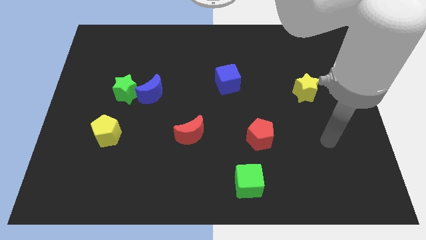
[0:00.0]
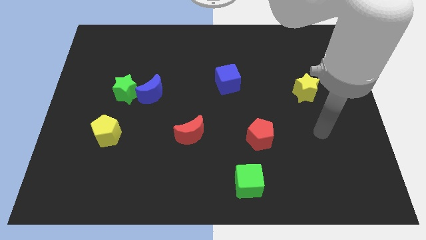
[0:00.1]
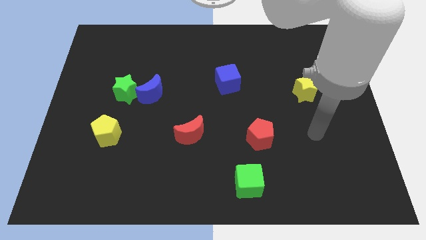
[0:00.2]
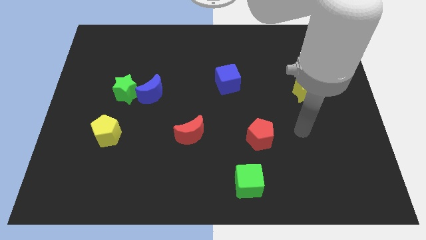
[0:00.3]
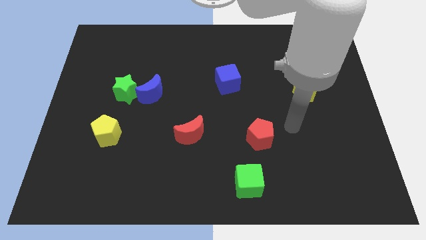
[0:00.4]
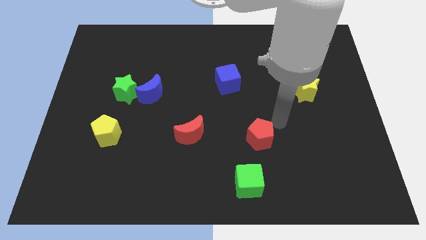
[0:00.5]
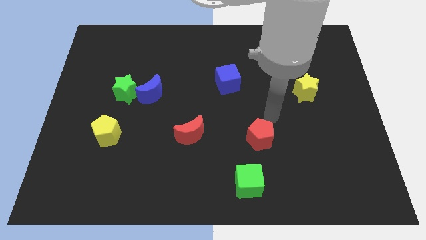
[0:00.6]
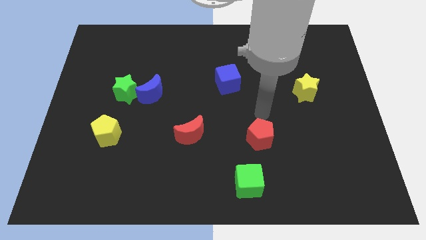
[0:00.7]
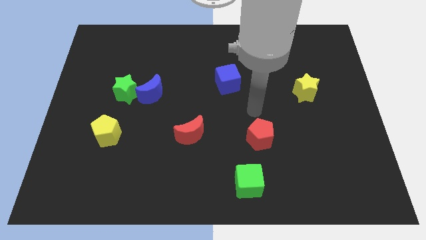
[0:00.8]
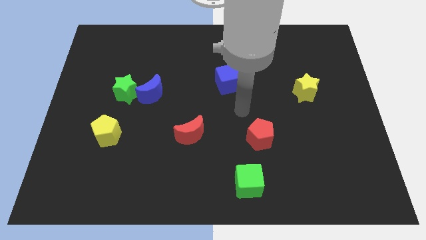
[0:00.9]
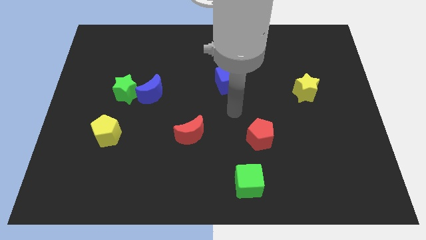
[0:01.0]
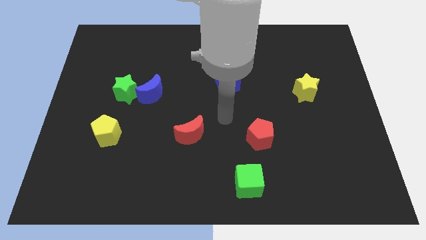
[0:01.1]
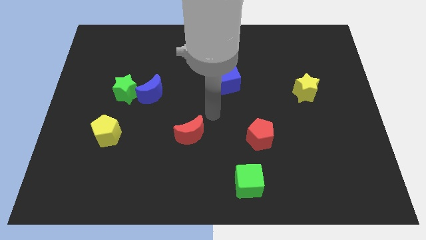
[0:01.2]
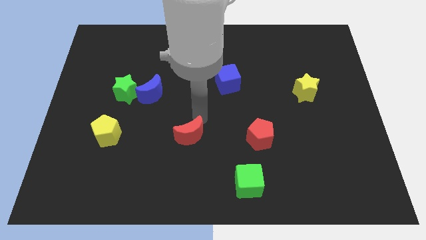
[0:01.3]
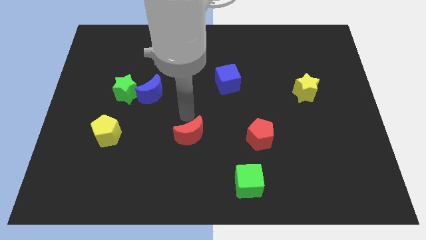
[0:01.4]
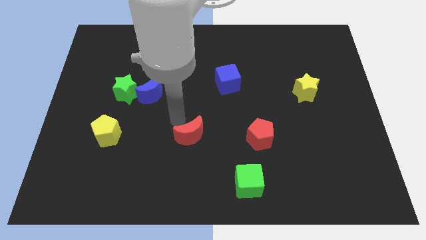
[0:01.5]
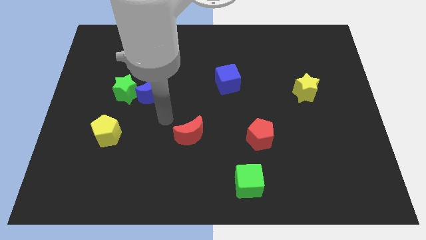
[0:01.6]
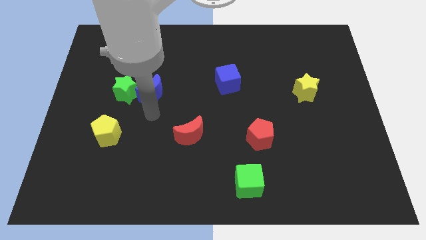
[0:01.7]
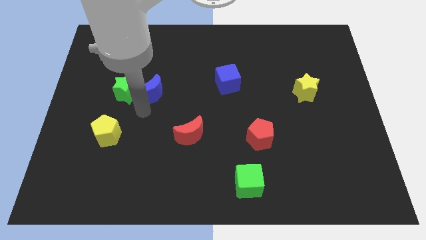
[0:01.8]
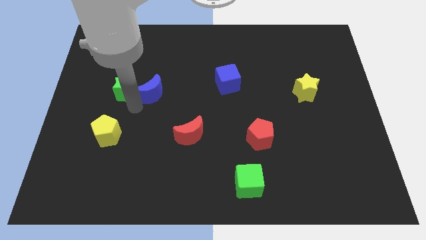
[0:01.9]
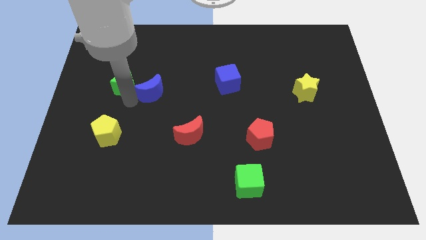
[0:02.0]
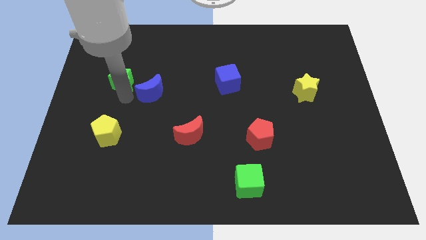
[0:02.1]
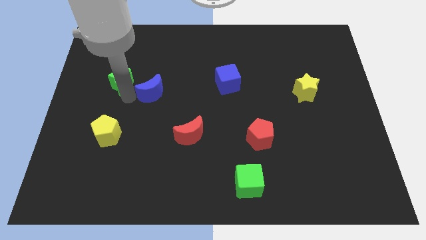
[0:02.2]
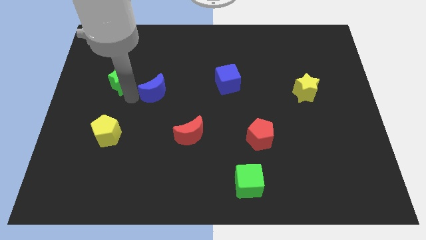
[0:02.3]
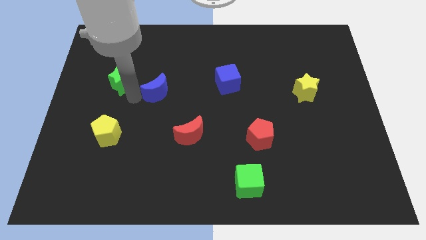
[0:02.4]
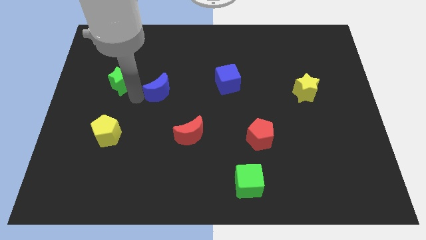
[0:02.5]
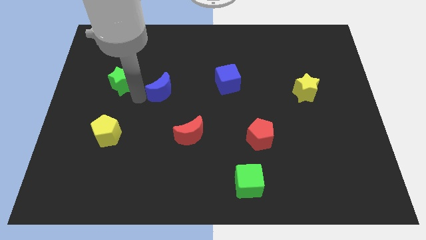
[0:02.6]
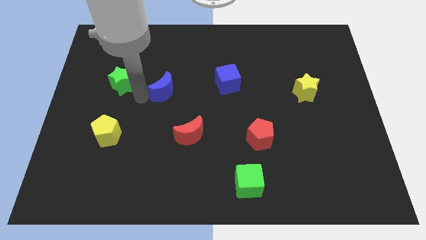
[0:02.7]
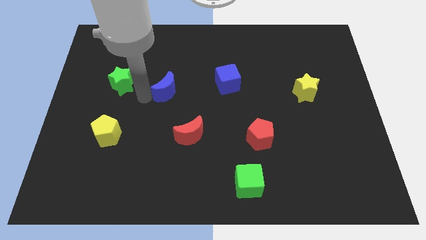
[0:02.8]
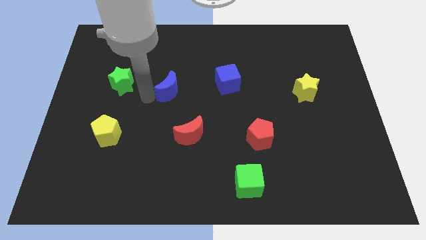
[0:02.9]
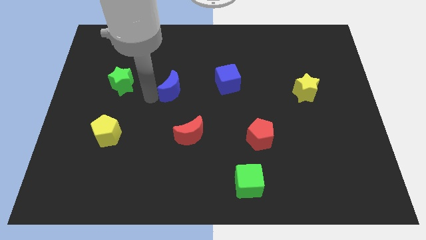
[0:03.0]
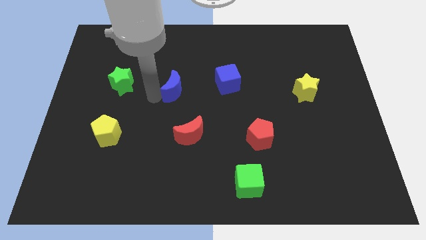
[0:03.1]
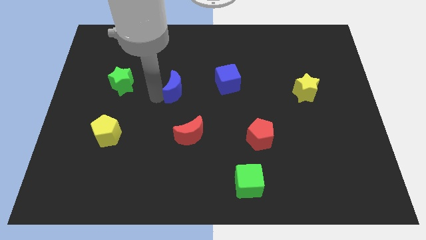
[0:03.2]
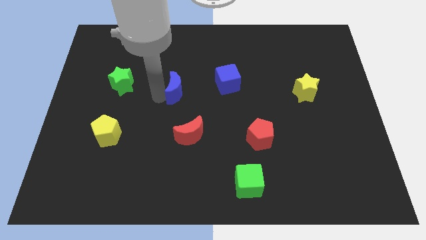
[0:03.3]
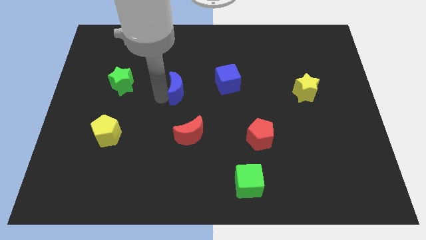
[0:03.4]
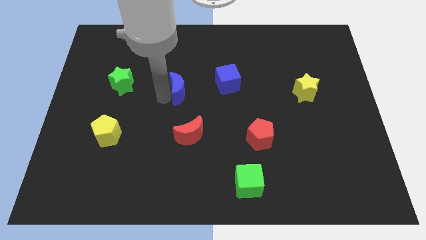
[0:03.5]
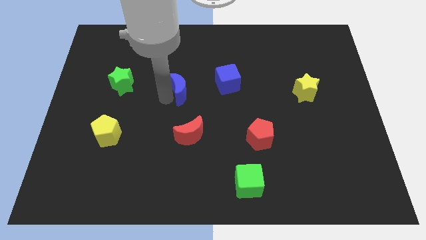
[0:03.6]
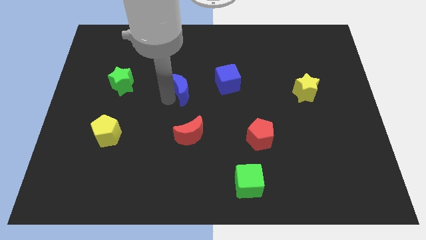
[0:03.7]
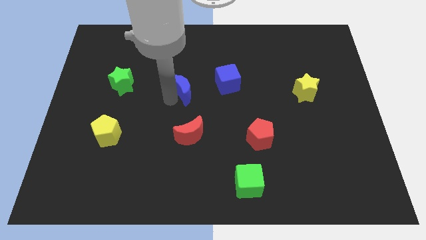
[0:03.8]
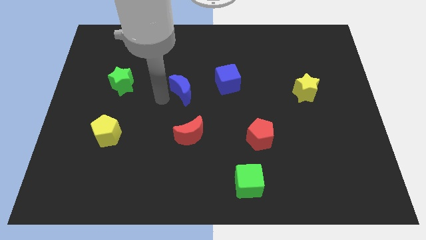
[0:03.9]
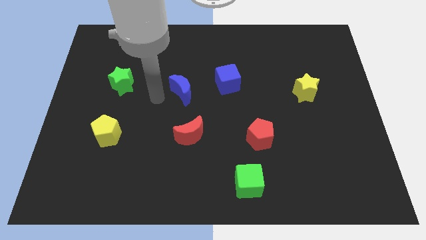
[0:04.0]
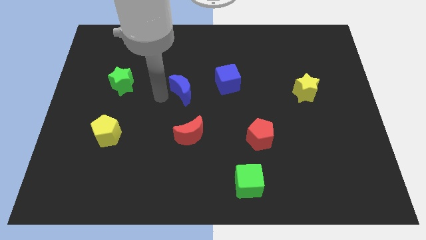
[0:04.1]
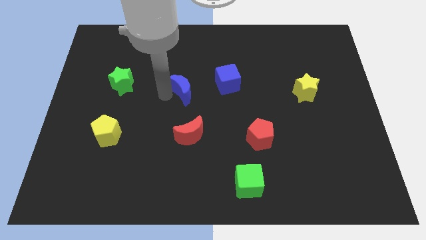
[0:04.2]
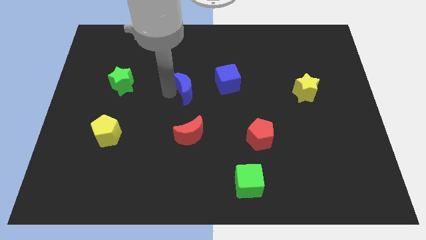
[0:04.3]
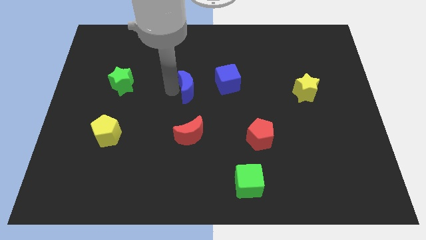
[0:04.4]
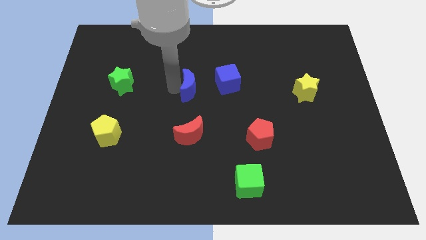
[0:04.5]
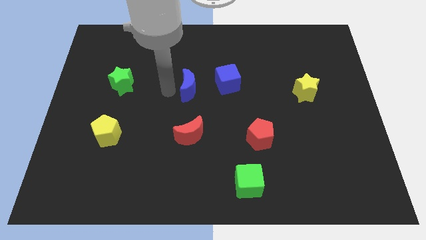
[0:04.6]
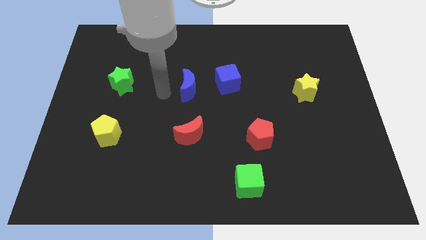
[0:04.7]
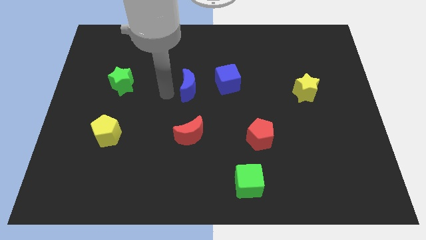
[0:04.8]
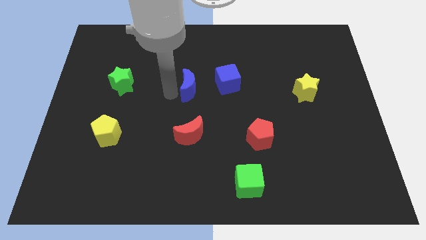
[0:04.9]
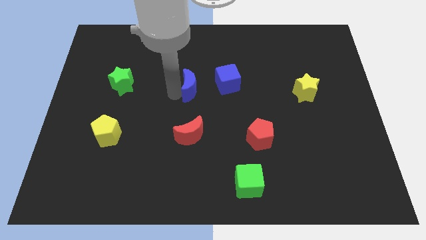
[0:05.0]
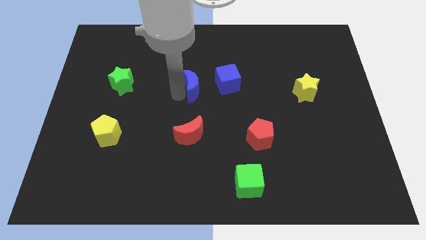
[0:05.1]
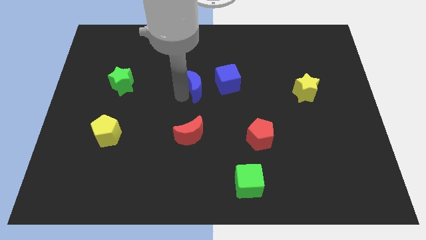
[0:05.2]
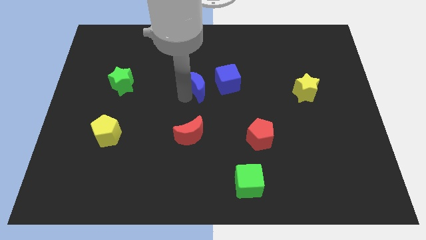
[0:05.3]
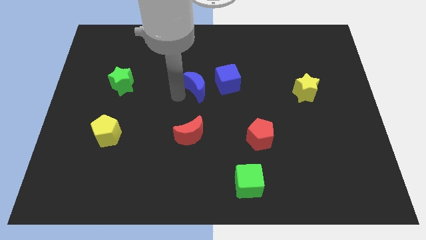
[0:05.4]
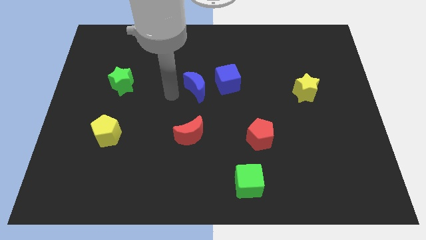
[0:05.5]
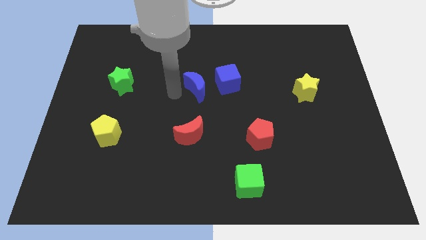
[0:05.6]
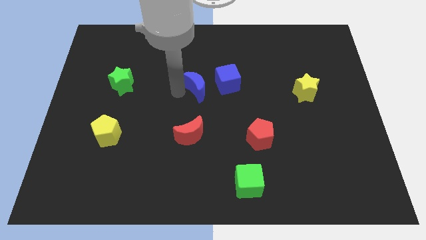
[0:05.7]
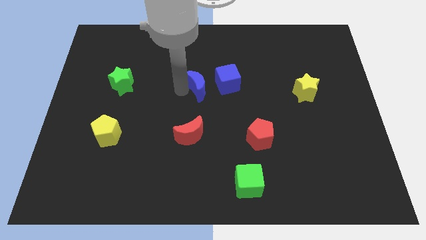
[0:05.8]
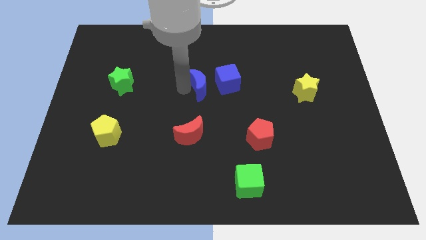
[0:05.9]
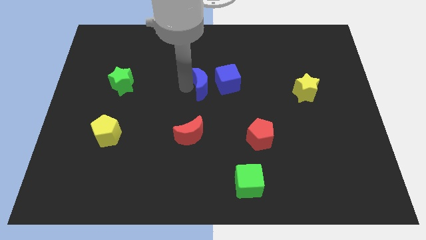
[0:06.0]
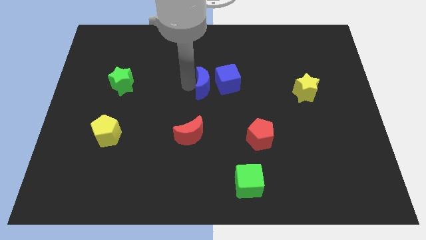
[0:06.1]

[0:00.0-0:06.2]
put the blue moon close to the blue cube
